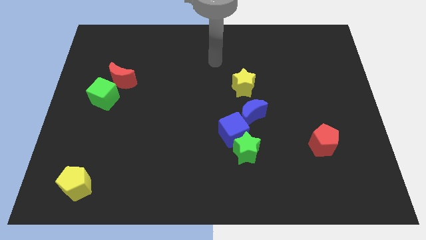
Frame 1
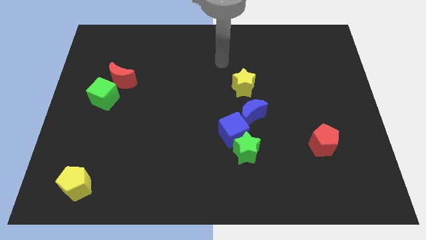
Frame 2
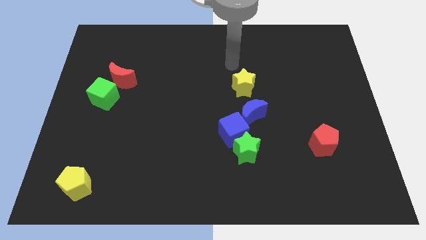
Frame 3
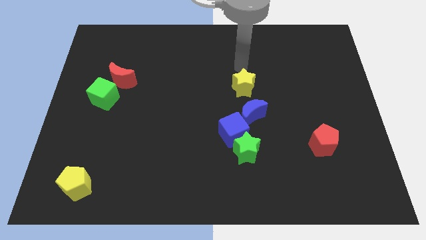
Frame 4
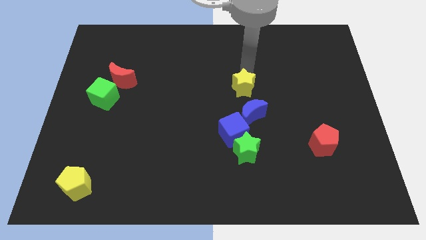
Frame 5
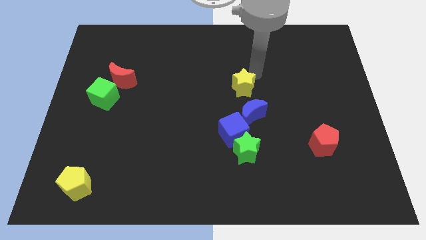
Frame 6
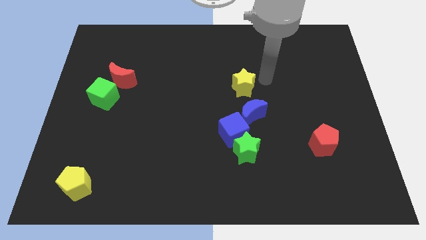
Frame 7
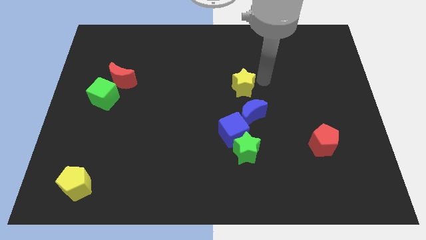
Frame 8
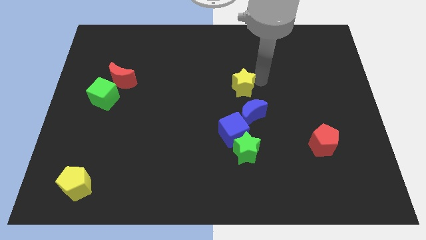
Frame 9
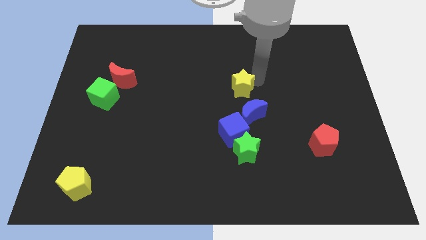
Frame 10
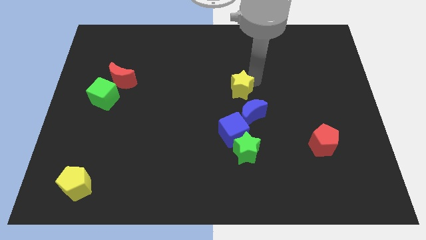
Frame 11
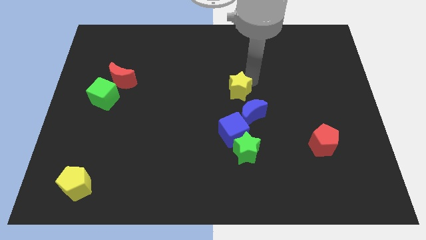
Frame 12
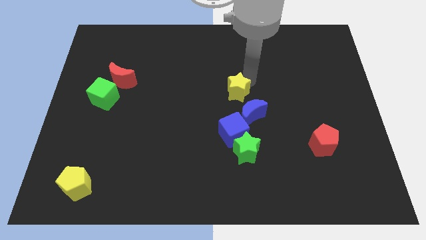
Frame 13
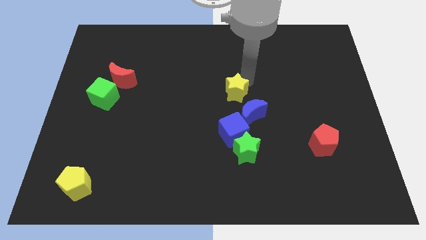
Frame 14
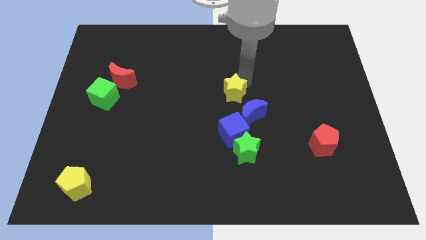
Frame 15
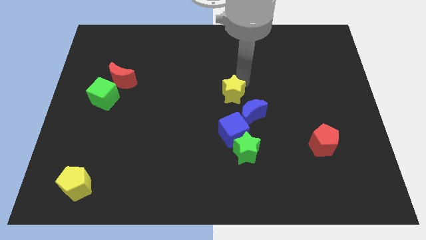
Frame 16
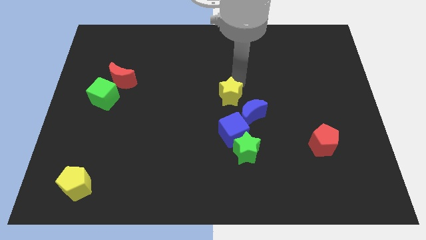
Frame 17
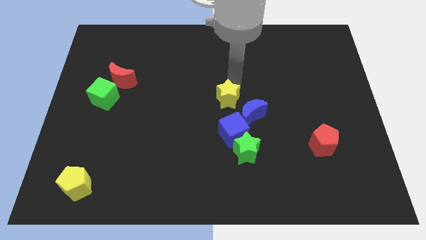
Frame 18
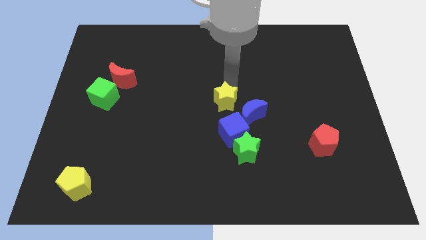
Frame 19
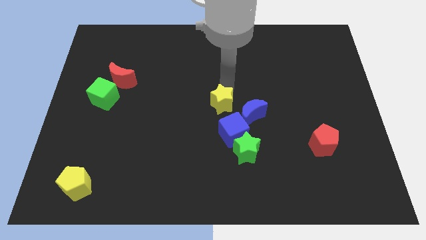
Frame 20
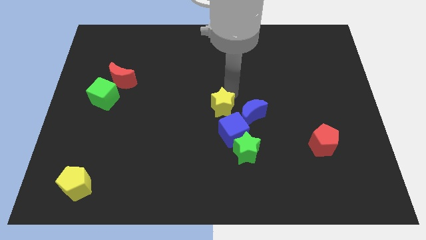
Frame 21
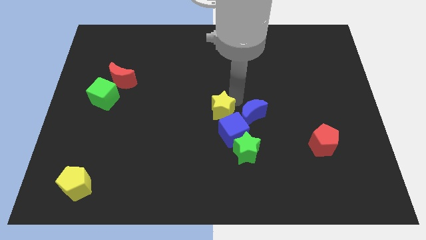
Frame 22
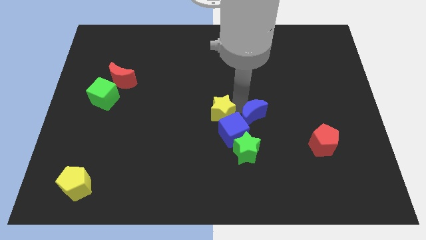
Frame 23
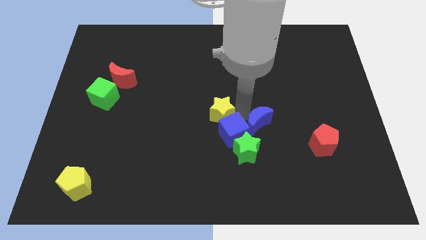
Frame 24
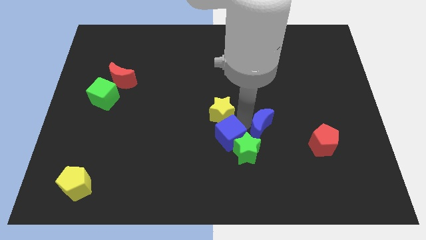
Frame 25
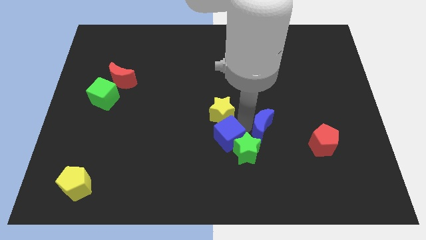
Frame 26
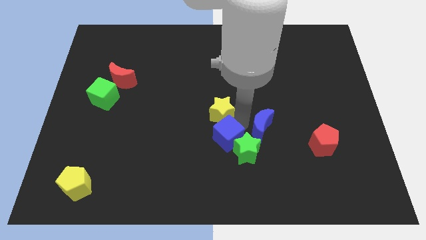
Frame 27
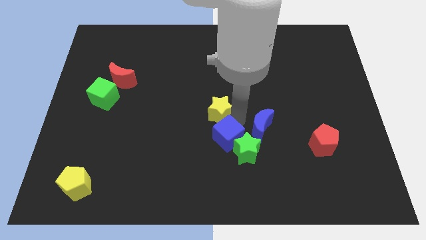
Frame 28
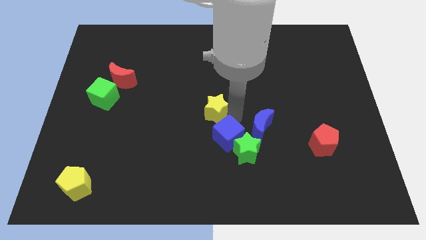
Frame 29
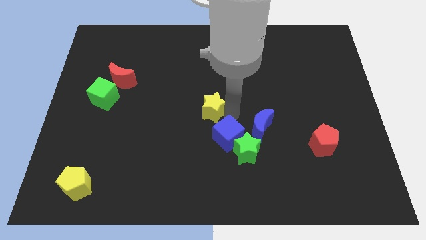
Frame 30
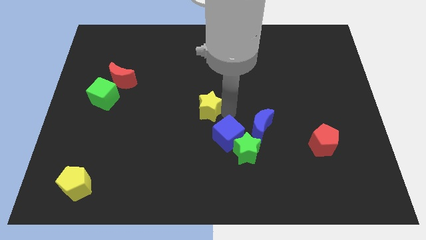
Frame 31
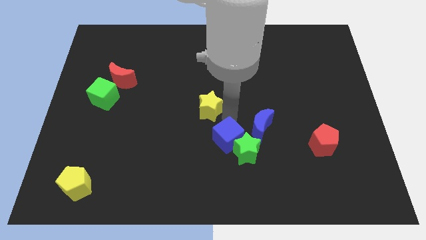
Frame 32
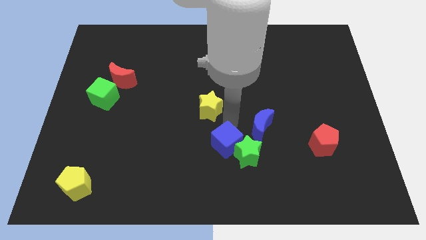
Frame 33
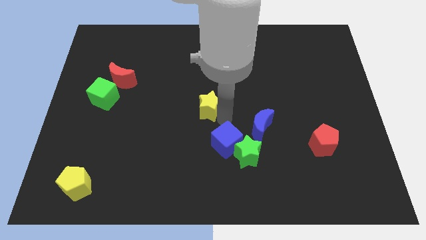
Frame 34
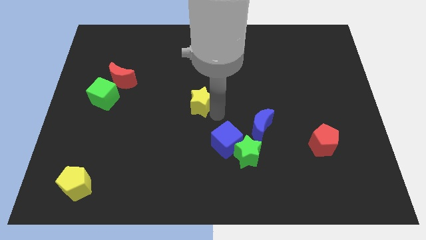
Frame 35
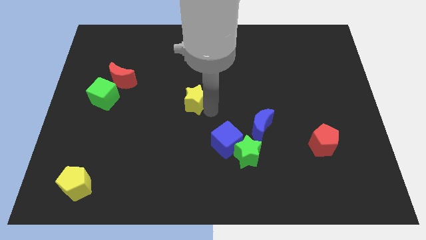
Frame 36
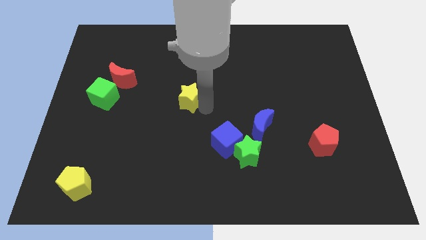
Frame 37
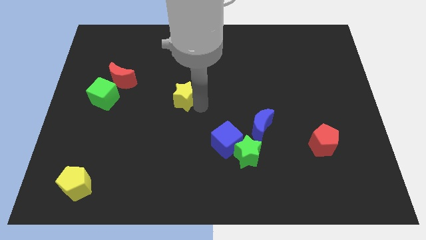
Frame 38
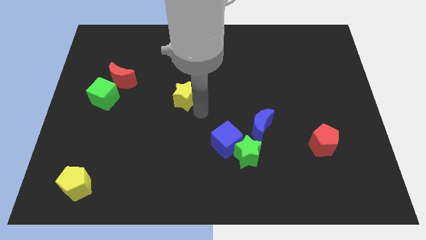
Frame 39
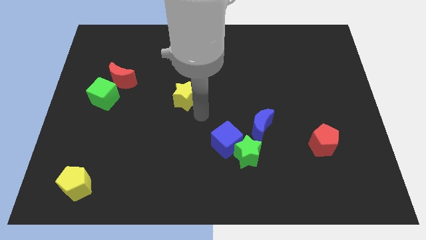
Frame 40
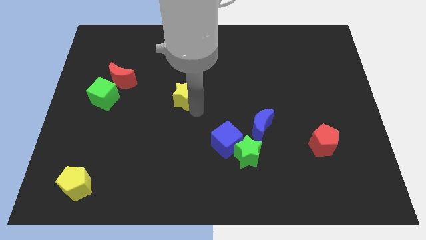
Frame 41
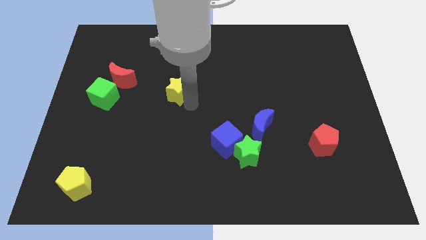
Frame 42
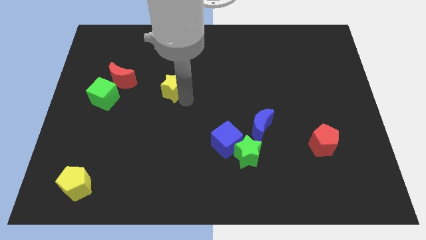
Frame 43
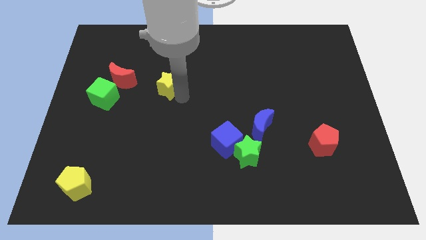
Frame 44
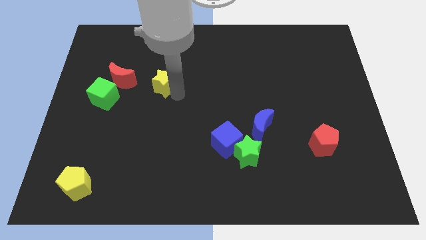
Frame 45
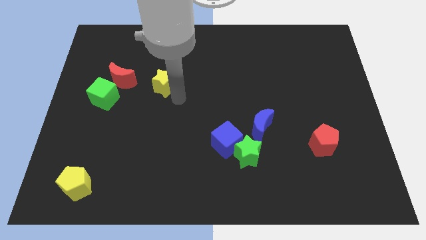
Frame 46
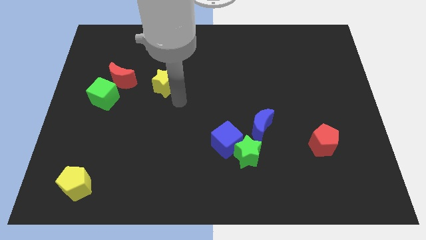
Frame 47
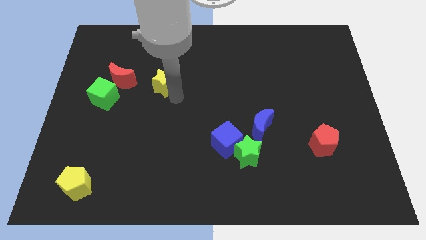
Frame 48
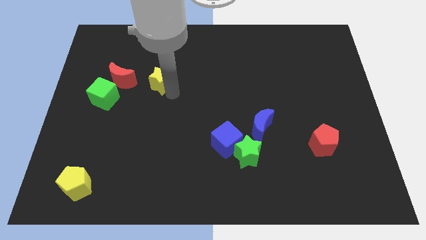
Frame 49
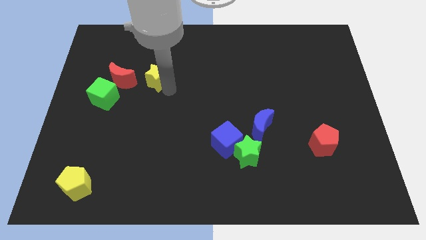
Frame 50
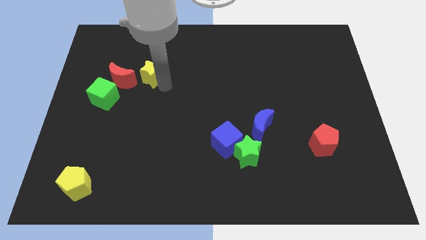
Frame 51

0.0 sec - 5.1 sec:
put the yellow star to the top right side of the red moon

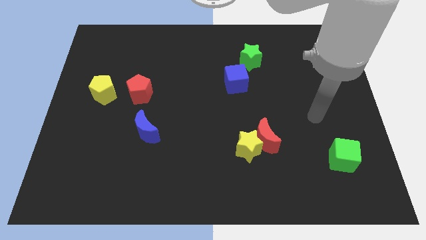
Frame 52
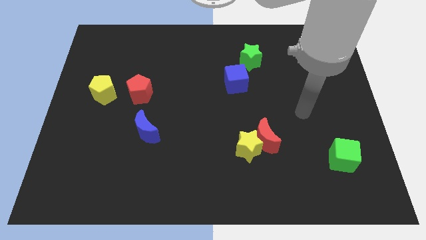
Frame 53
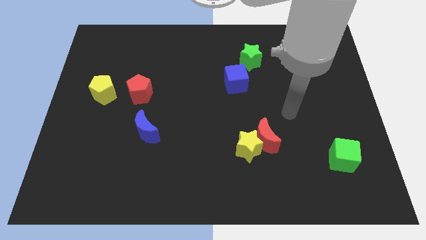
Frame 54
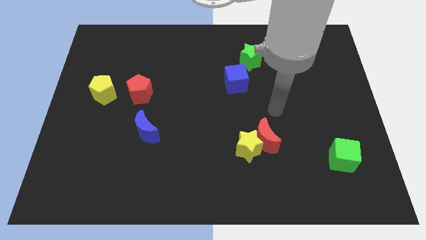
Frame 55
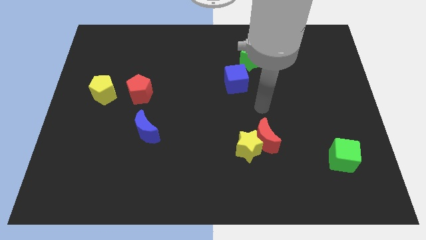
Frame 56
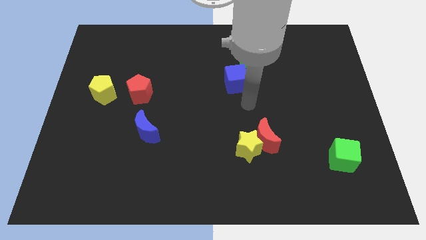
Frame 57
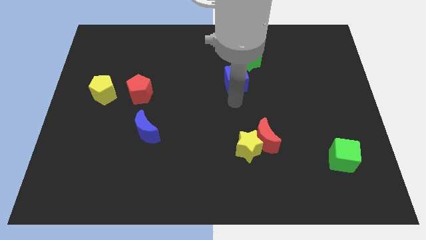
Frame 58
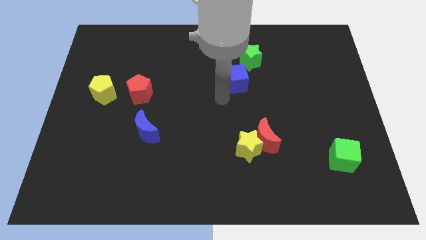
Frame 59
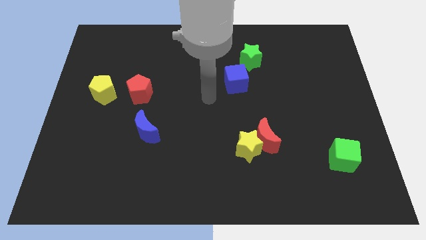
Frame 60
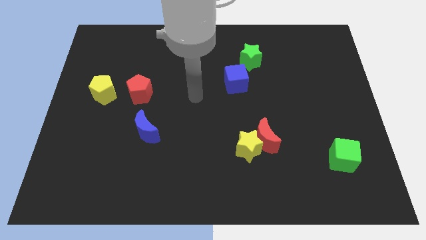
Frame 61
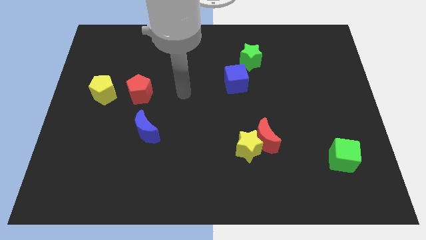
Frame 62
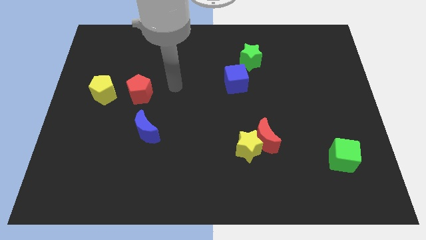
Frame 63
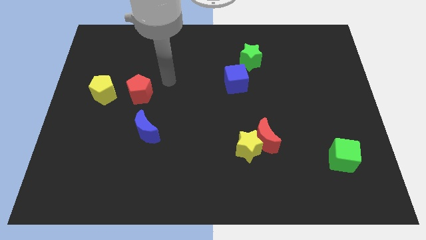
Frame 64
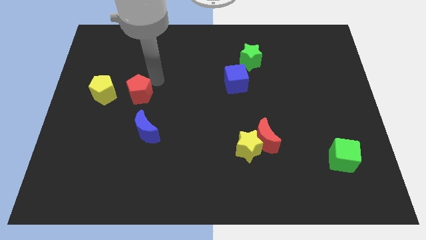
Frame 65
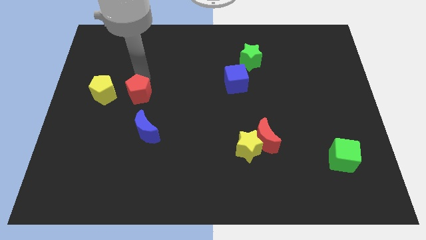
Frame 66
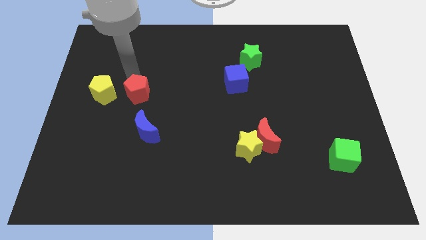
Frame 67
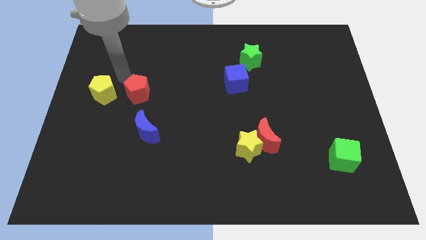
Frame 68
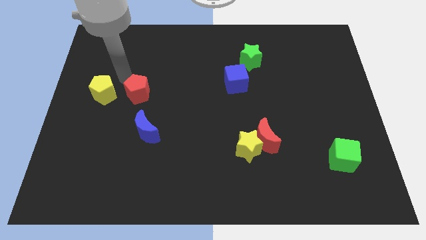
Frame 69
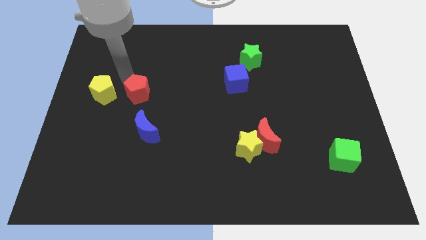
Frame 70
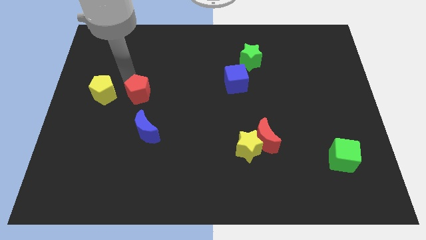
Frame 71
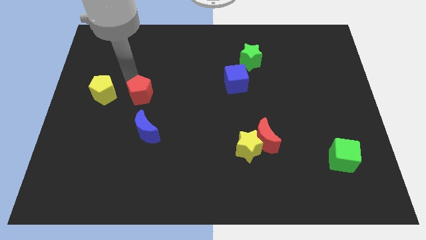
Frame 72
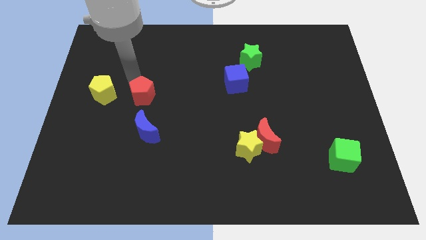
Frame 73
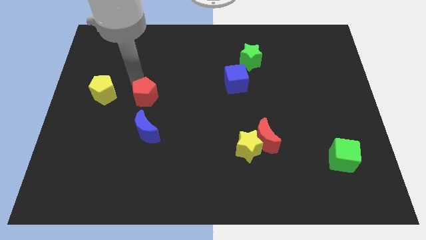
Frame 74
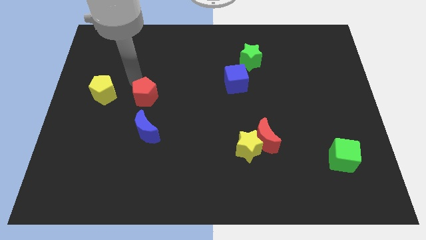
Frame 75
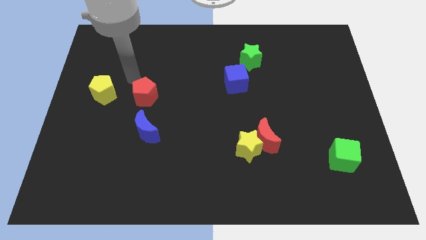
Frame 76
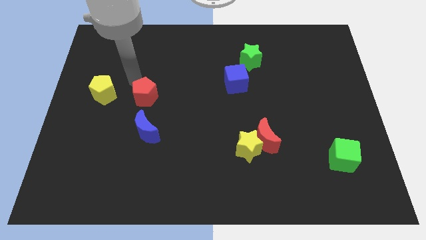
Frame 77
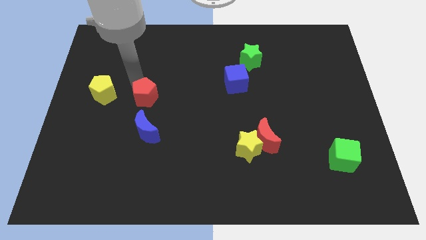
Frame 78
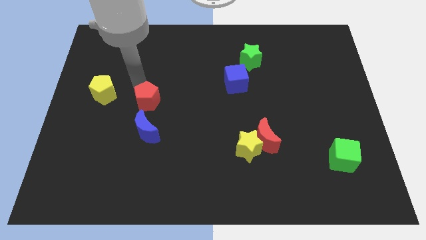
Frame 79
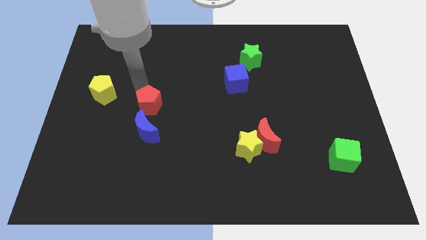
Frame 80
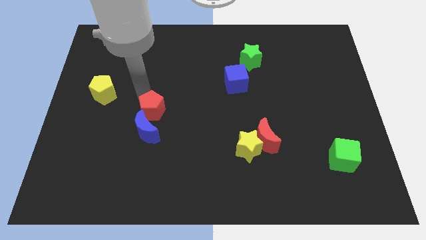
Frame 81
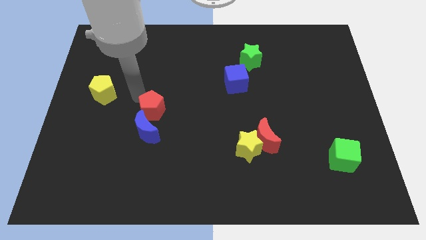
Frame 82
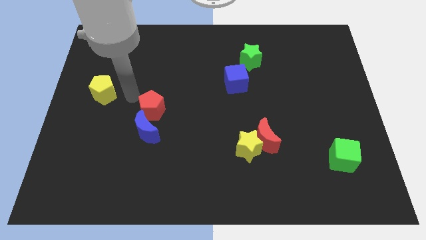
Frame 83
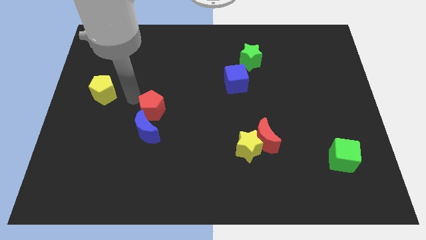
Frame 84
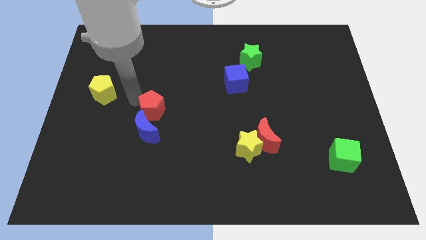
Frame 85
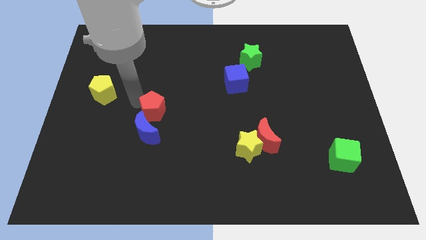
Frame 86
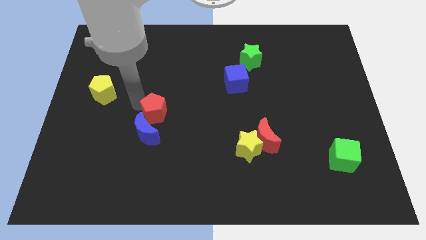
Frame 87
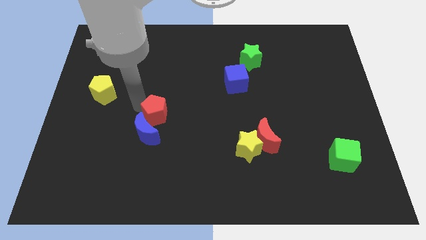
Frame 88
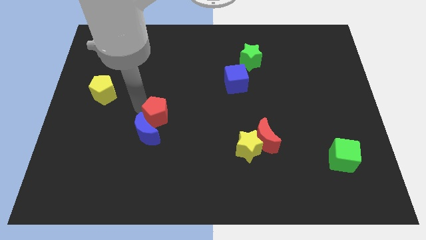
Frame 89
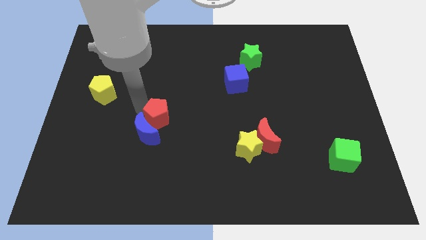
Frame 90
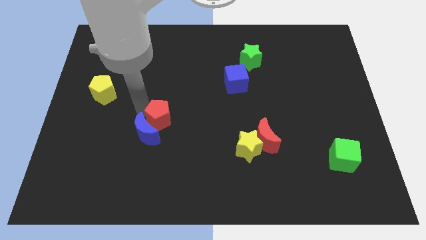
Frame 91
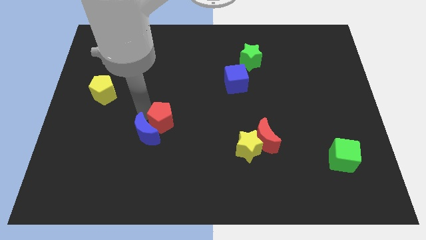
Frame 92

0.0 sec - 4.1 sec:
put the red pentagon right of the blue moon

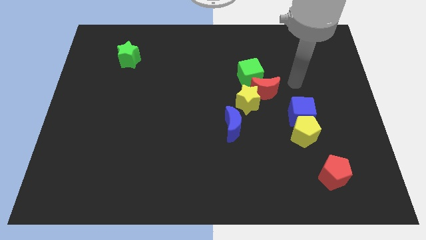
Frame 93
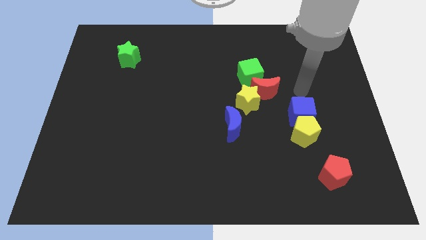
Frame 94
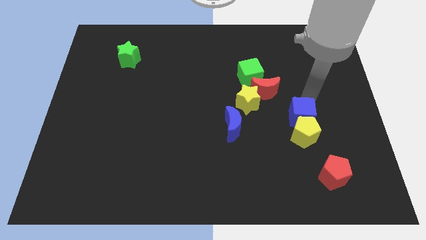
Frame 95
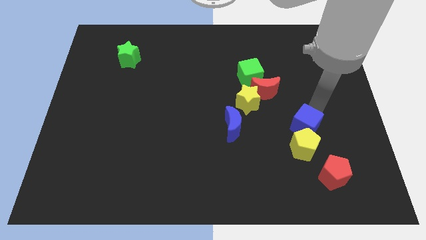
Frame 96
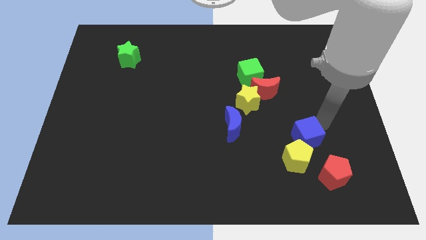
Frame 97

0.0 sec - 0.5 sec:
push the yellow pentagon to the left of the red pentagon
